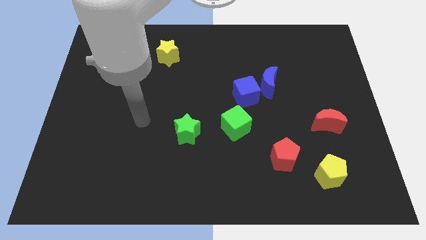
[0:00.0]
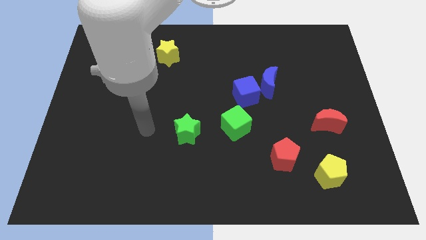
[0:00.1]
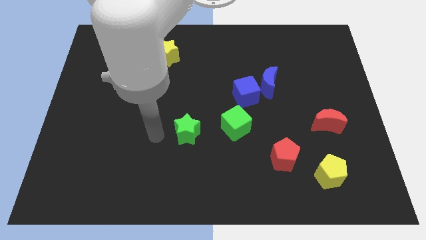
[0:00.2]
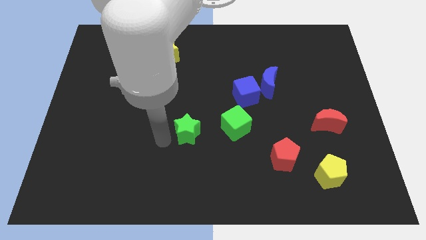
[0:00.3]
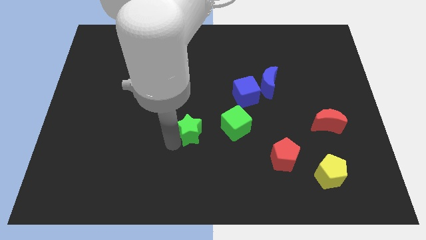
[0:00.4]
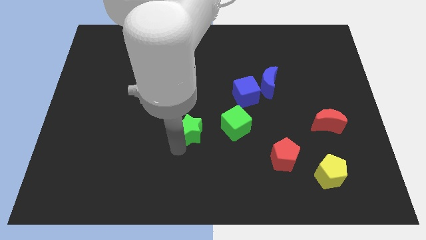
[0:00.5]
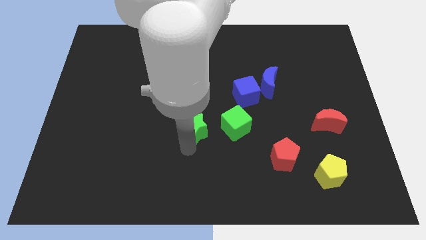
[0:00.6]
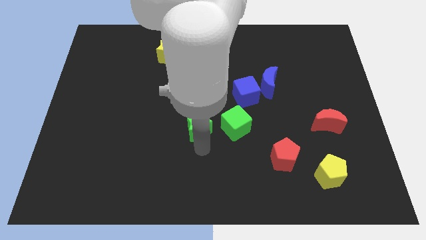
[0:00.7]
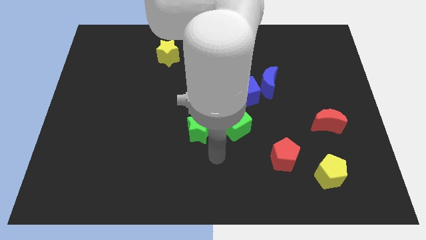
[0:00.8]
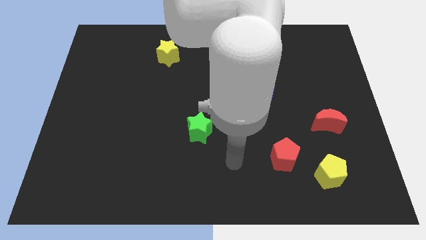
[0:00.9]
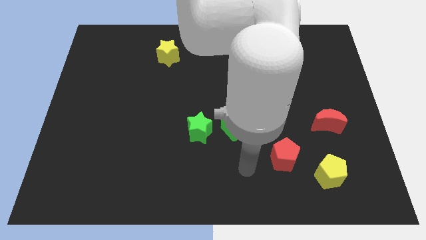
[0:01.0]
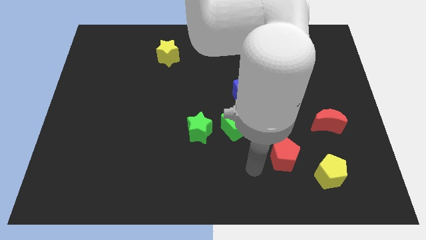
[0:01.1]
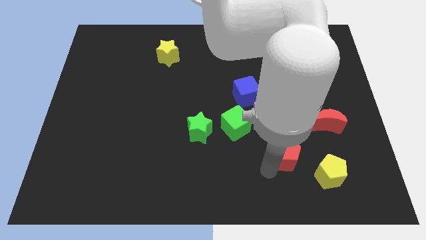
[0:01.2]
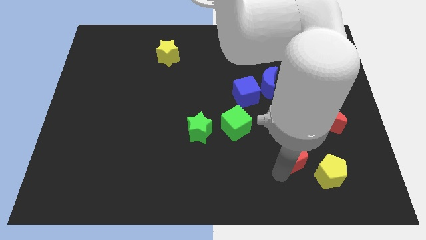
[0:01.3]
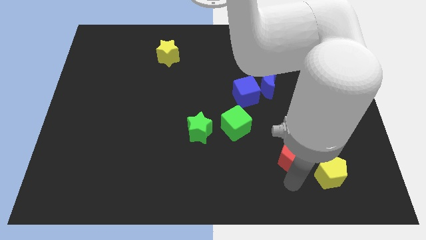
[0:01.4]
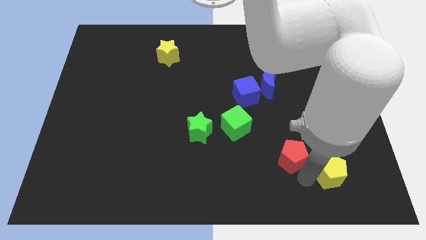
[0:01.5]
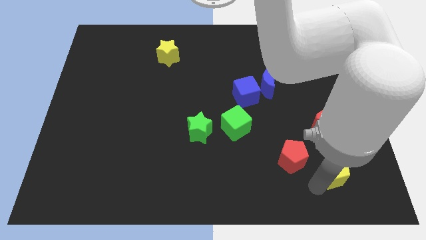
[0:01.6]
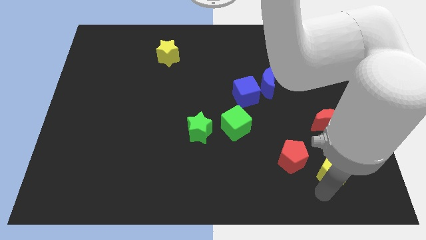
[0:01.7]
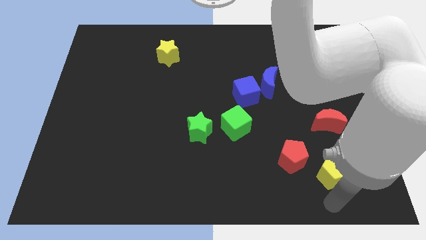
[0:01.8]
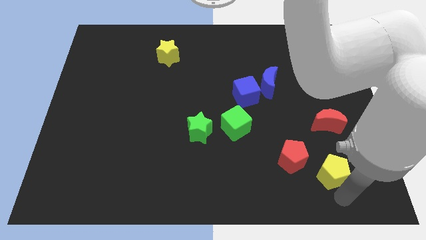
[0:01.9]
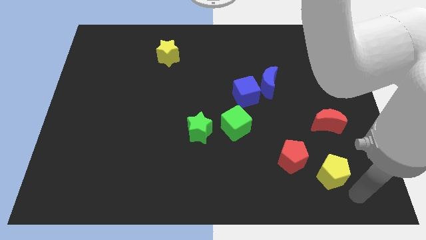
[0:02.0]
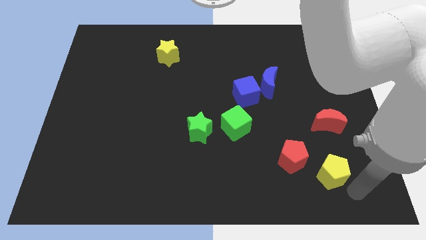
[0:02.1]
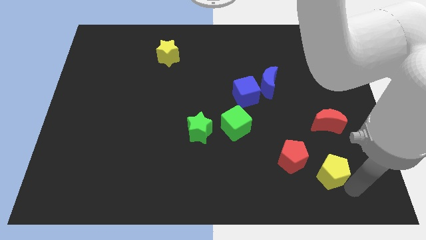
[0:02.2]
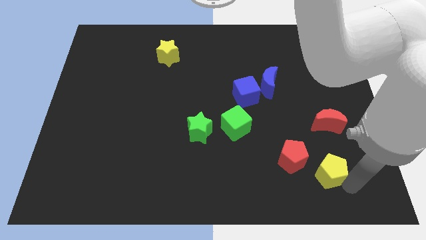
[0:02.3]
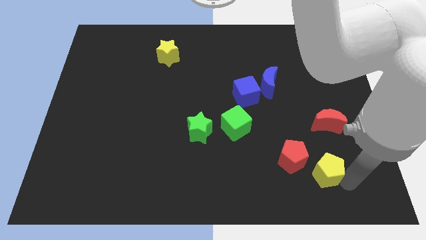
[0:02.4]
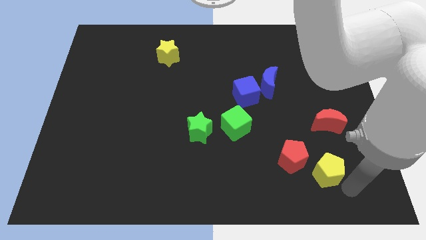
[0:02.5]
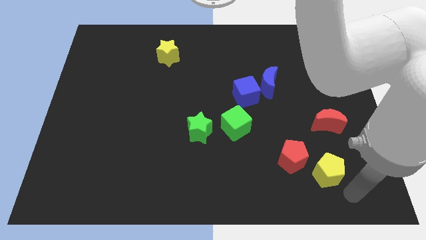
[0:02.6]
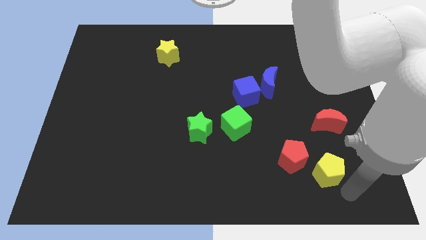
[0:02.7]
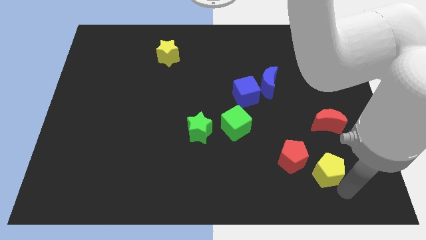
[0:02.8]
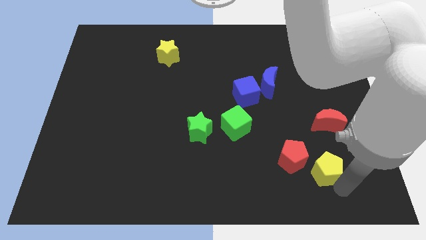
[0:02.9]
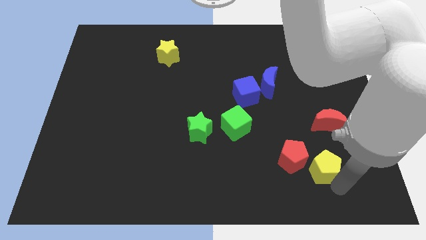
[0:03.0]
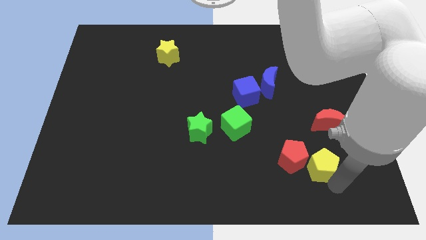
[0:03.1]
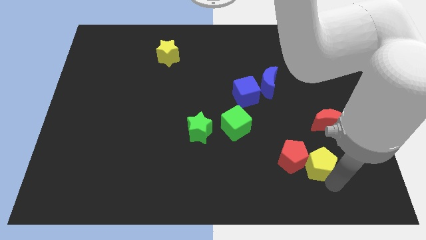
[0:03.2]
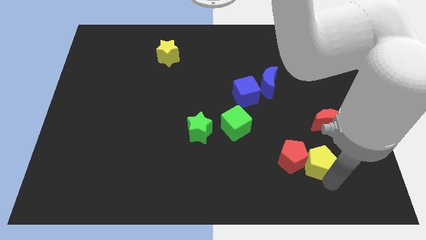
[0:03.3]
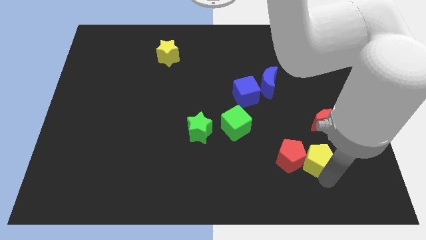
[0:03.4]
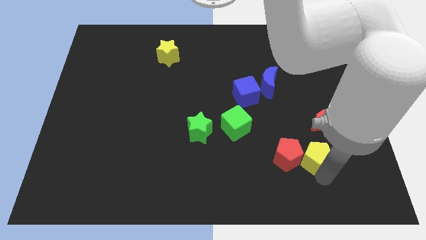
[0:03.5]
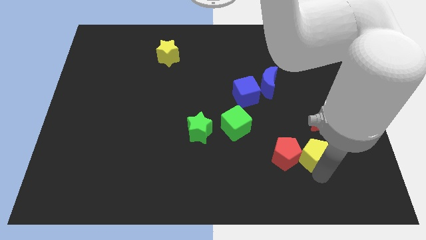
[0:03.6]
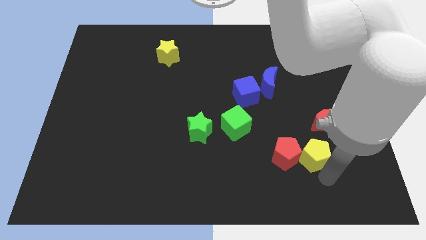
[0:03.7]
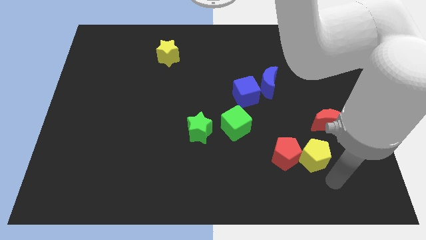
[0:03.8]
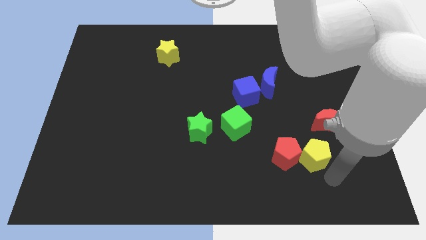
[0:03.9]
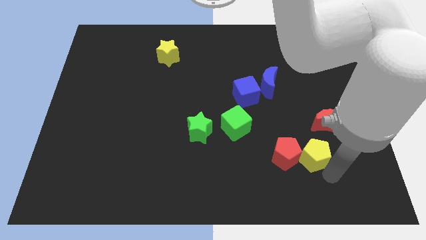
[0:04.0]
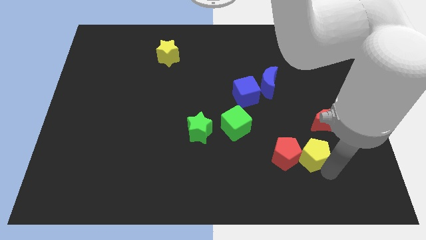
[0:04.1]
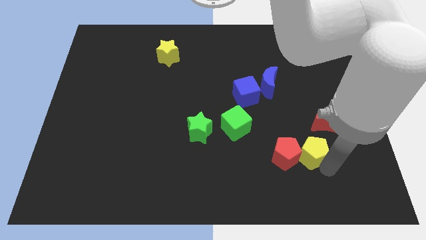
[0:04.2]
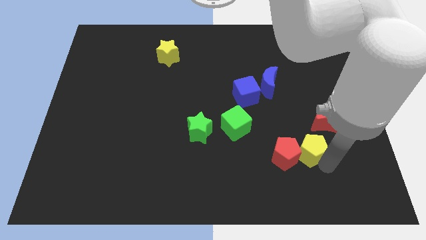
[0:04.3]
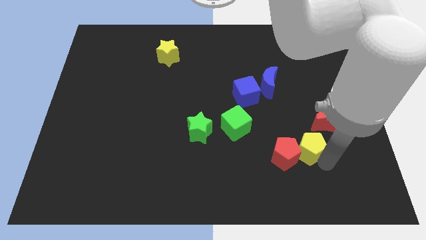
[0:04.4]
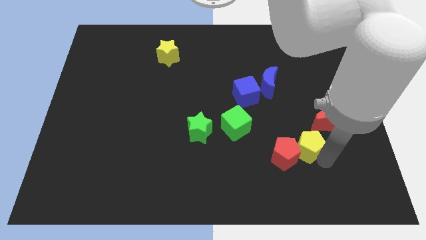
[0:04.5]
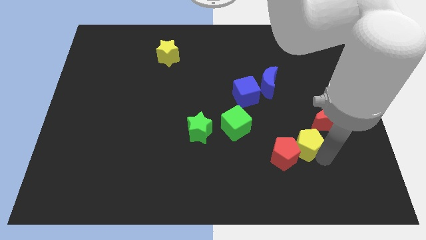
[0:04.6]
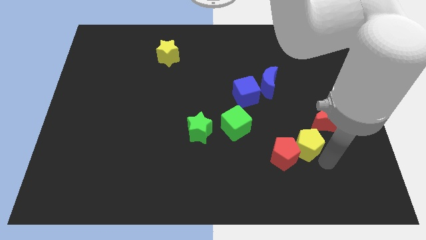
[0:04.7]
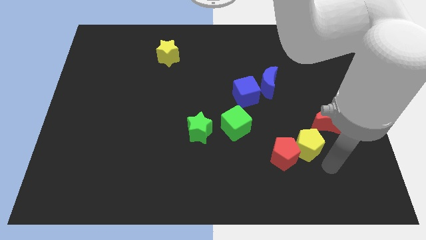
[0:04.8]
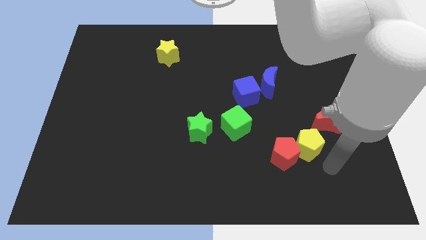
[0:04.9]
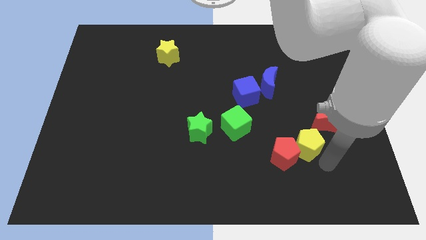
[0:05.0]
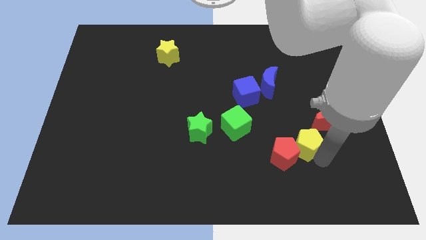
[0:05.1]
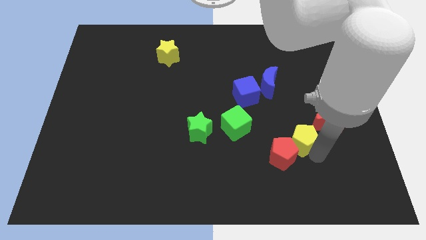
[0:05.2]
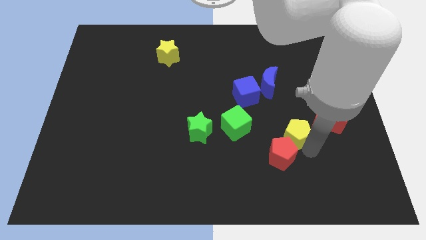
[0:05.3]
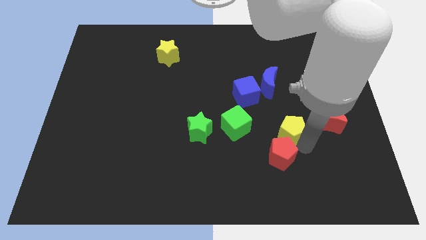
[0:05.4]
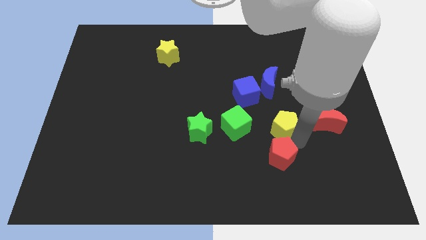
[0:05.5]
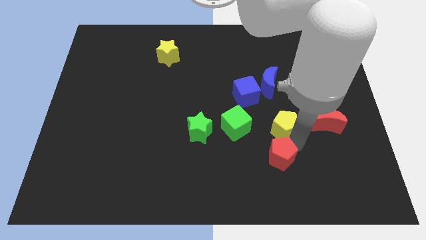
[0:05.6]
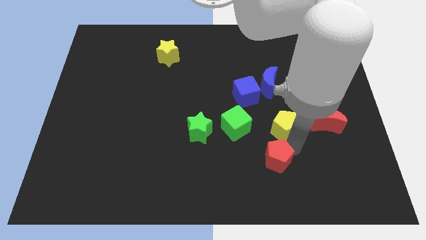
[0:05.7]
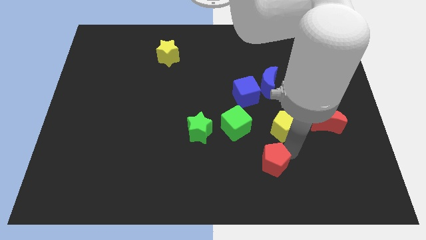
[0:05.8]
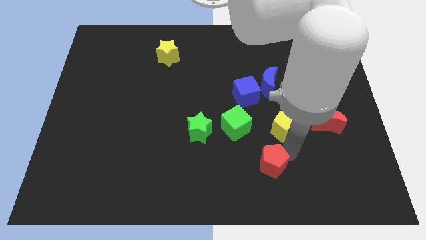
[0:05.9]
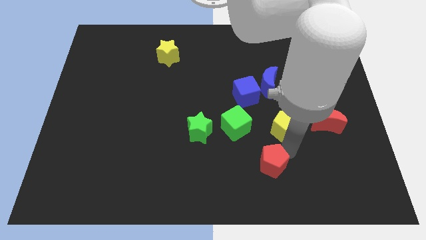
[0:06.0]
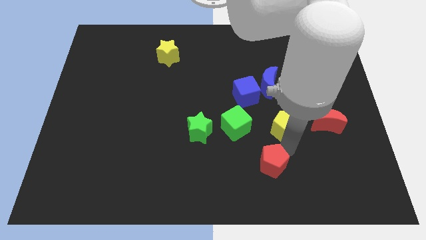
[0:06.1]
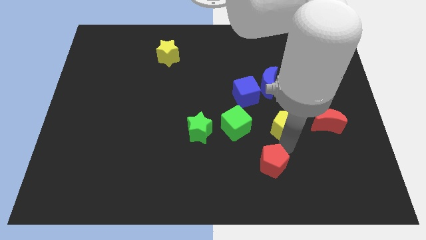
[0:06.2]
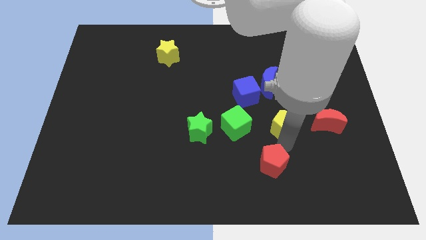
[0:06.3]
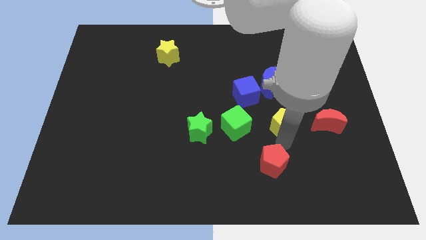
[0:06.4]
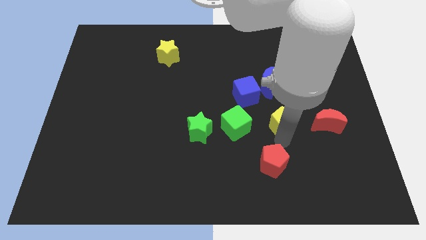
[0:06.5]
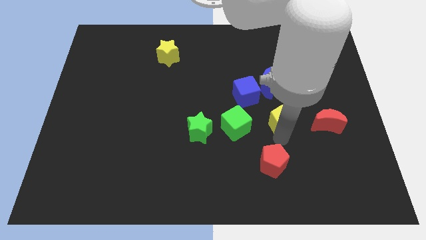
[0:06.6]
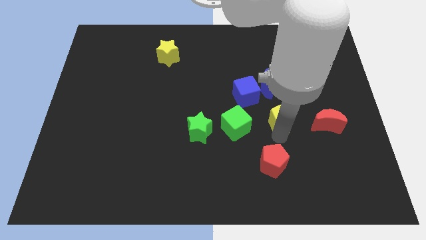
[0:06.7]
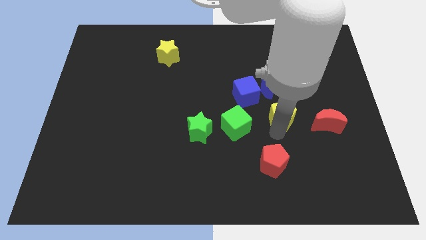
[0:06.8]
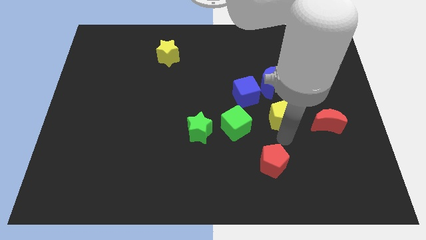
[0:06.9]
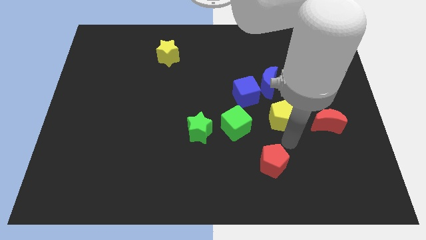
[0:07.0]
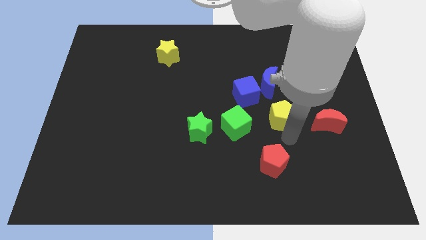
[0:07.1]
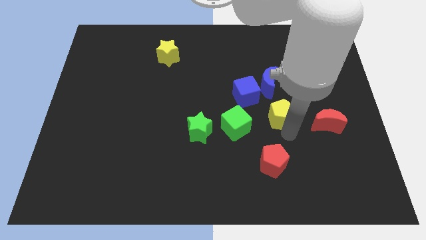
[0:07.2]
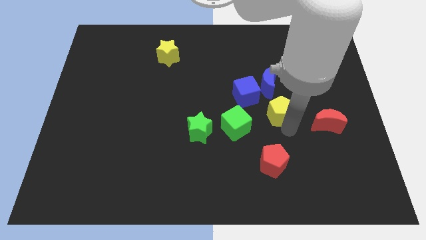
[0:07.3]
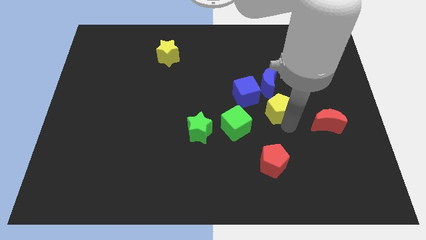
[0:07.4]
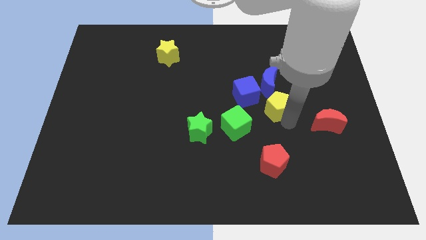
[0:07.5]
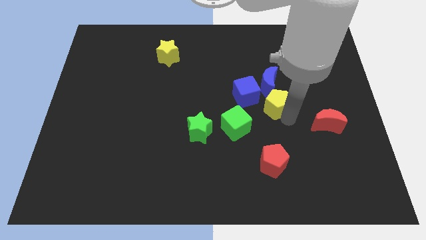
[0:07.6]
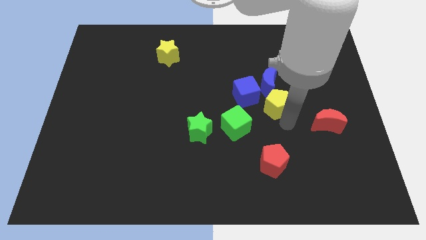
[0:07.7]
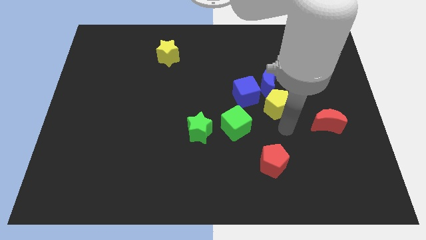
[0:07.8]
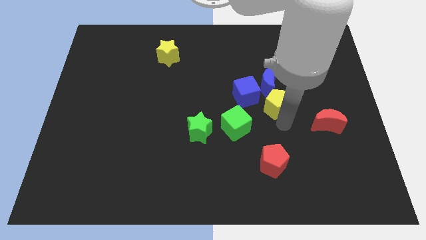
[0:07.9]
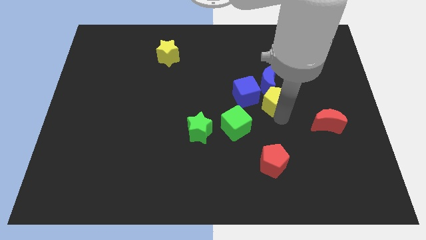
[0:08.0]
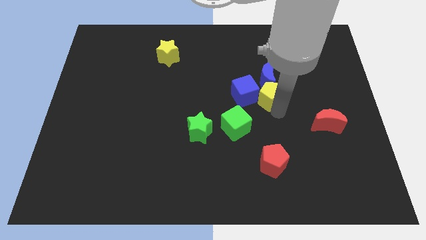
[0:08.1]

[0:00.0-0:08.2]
slide the yellow pentagon close to the blue moon
